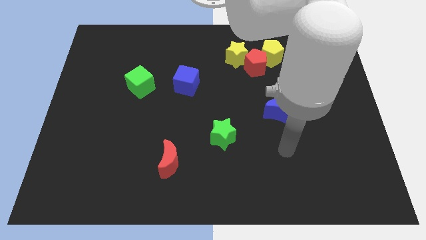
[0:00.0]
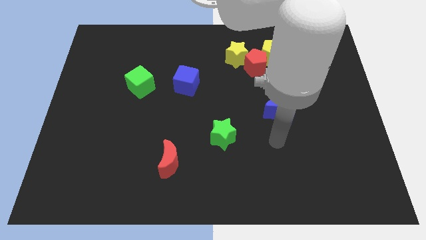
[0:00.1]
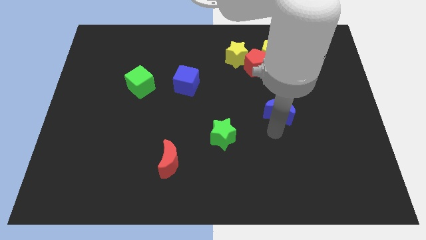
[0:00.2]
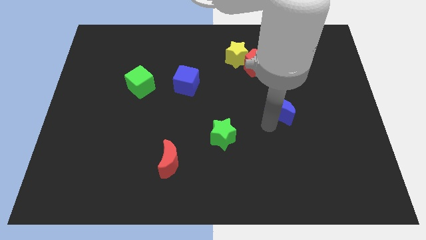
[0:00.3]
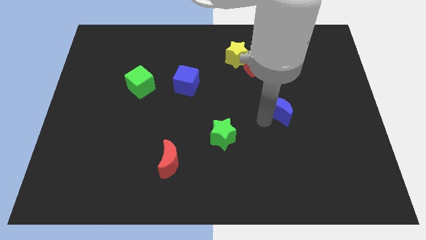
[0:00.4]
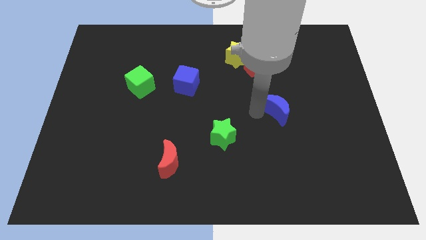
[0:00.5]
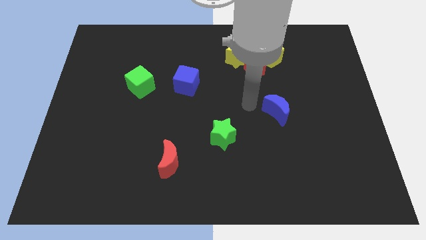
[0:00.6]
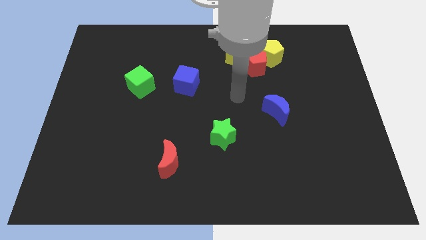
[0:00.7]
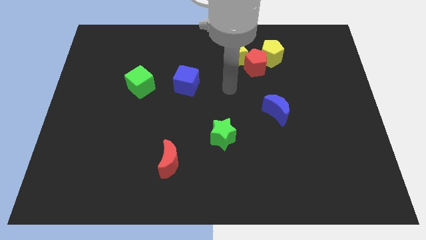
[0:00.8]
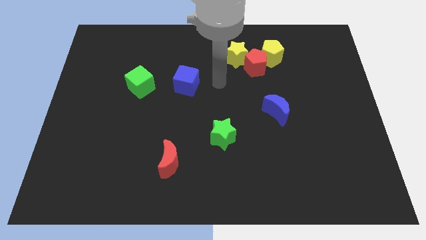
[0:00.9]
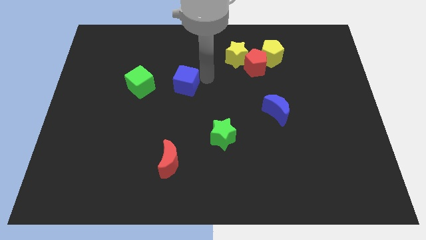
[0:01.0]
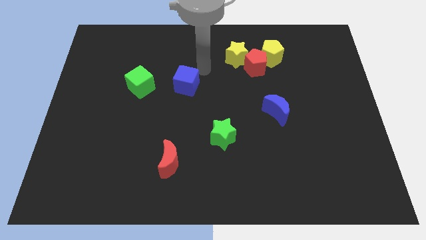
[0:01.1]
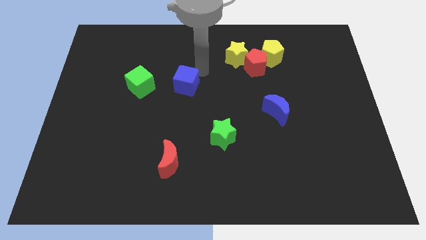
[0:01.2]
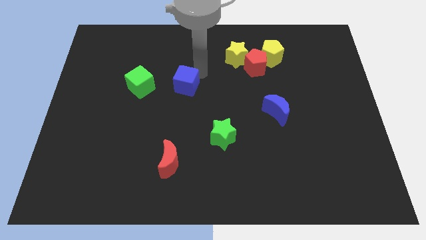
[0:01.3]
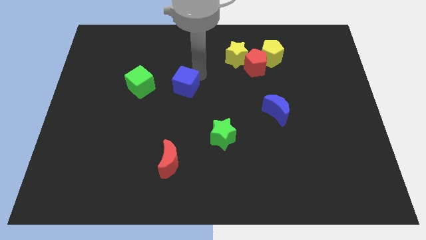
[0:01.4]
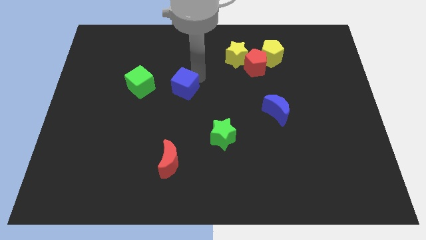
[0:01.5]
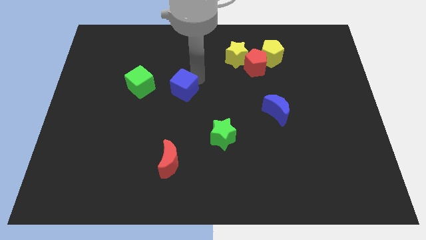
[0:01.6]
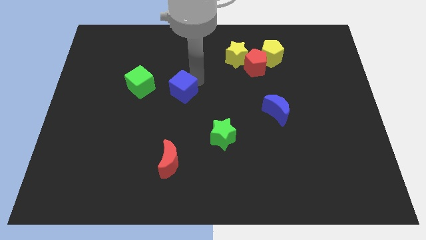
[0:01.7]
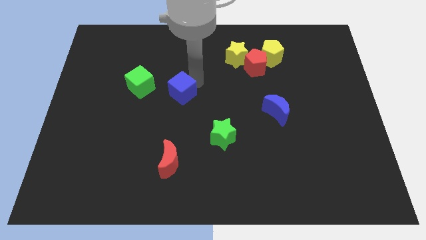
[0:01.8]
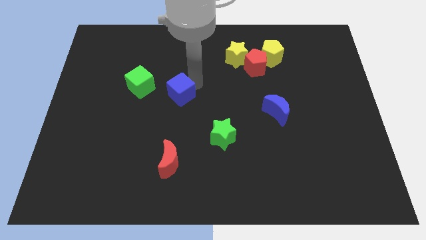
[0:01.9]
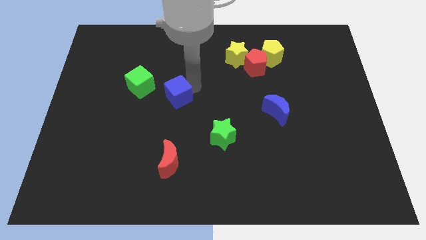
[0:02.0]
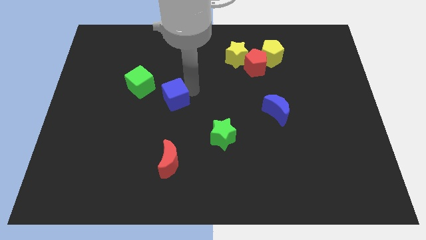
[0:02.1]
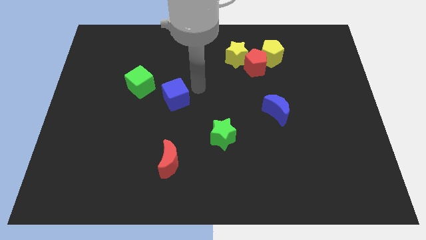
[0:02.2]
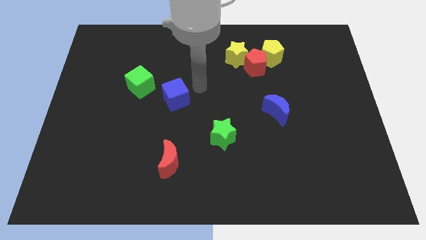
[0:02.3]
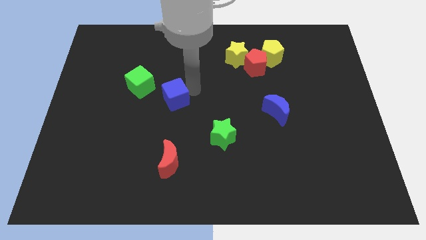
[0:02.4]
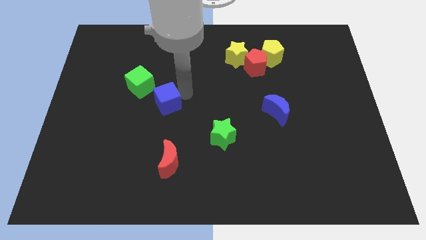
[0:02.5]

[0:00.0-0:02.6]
slightly push the blue cube downwards and left

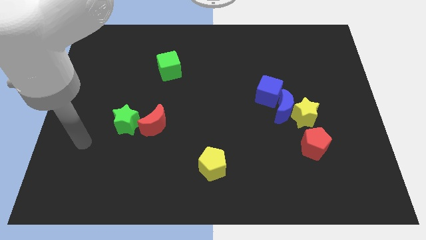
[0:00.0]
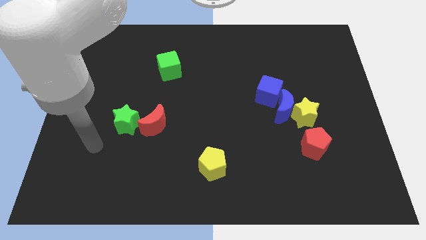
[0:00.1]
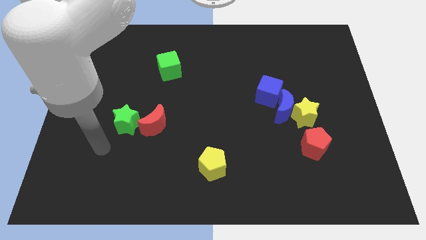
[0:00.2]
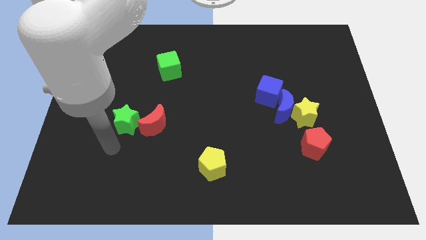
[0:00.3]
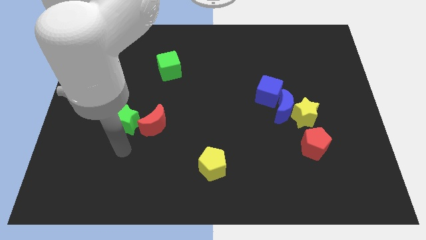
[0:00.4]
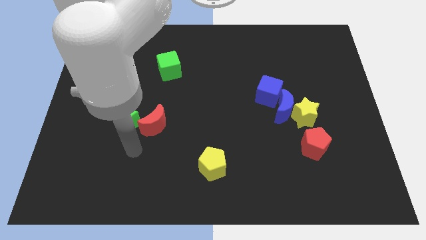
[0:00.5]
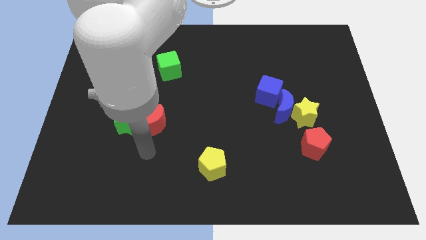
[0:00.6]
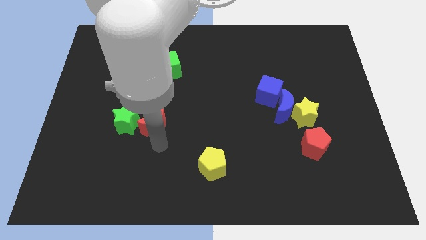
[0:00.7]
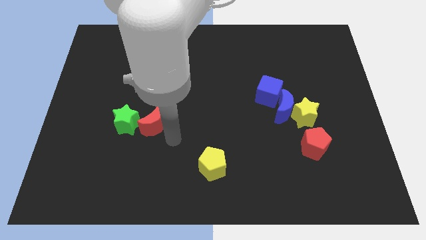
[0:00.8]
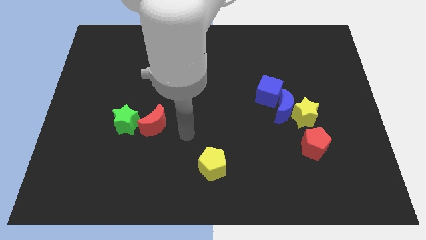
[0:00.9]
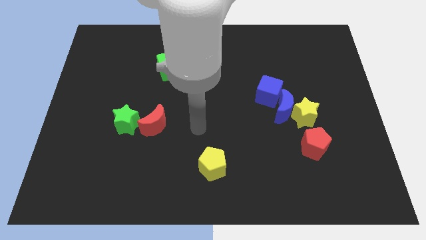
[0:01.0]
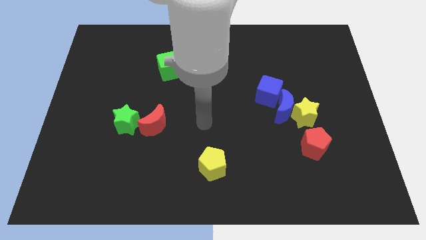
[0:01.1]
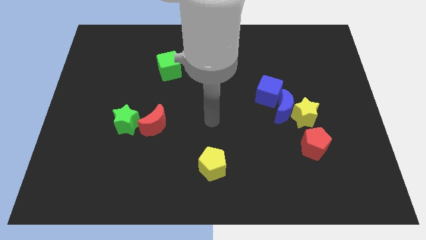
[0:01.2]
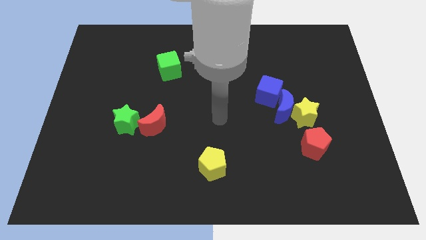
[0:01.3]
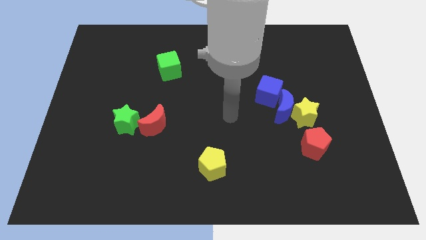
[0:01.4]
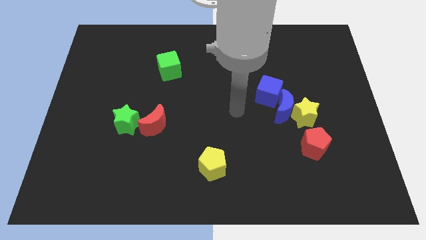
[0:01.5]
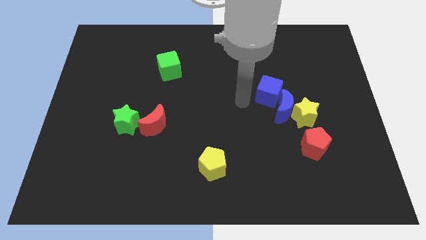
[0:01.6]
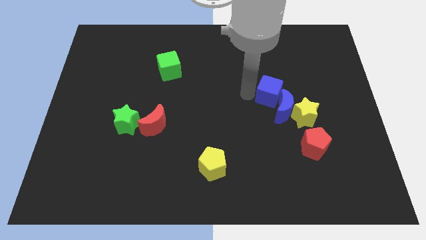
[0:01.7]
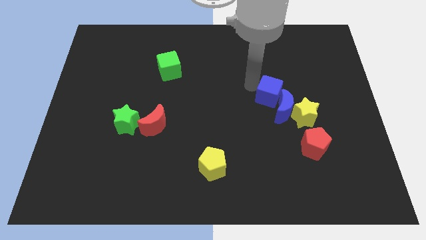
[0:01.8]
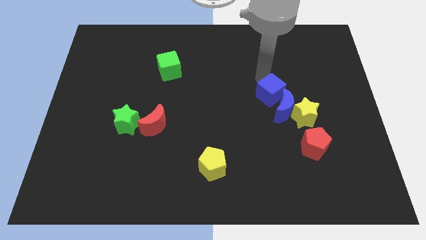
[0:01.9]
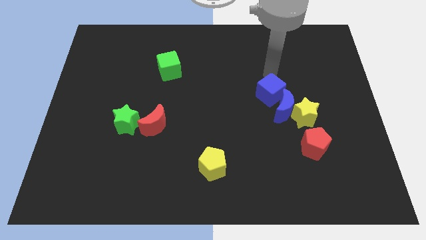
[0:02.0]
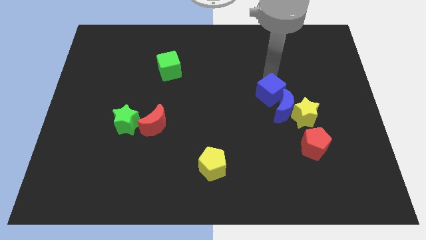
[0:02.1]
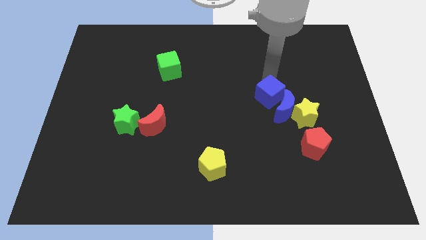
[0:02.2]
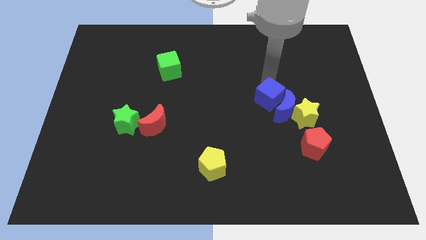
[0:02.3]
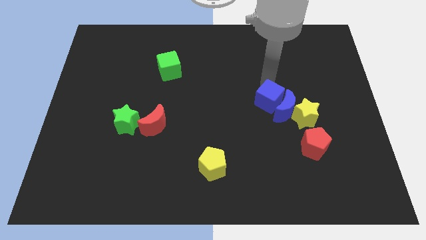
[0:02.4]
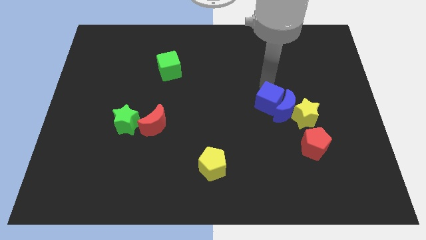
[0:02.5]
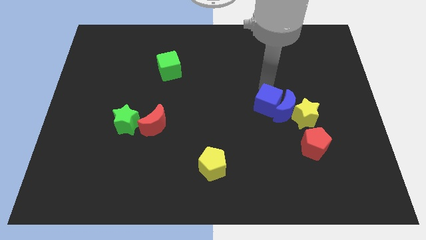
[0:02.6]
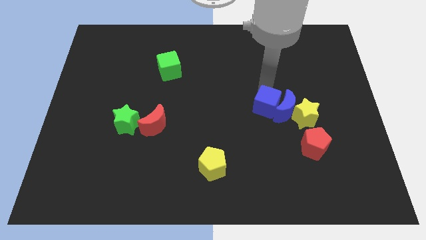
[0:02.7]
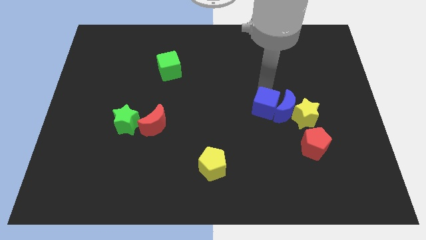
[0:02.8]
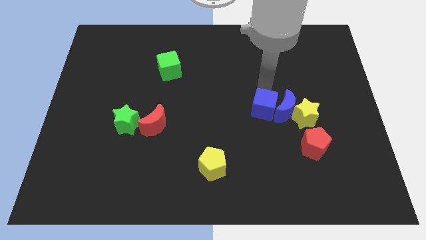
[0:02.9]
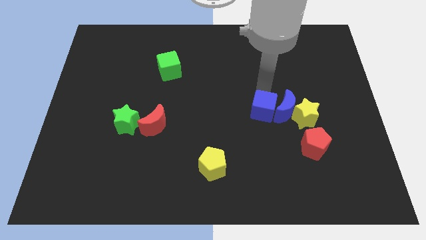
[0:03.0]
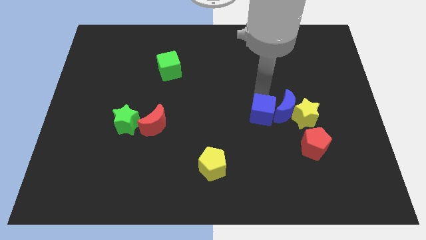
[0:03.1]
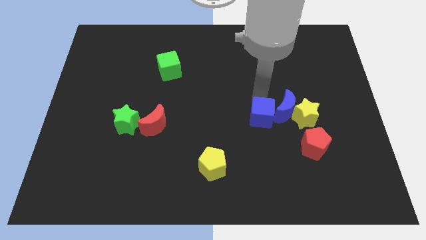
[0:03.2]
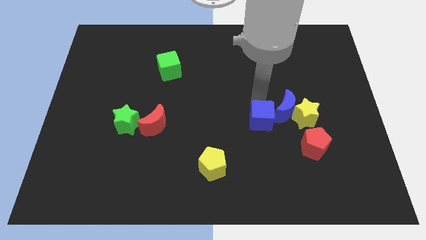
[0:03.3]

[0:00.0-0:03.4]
push the blue cube downwards a little

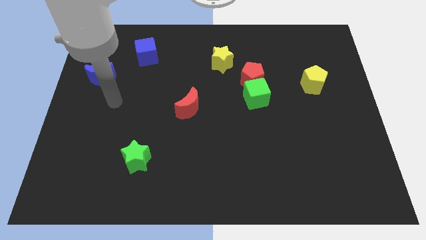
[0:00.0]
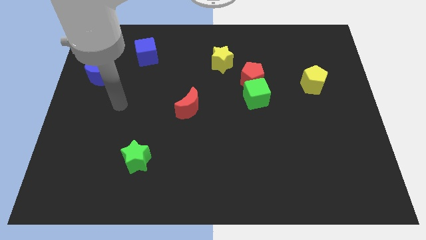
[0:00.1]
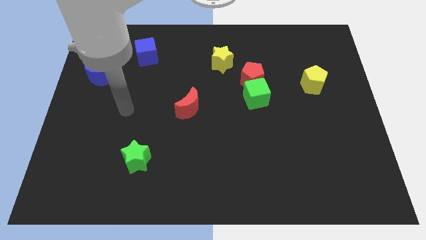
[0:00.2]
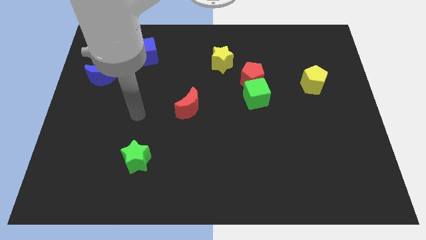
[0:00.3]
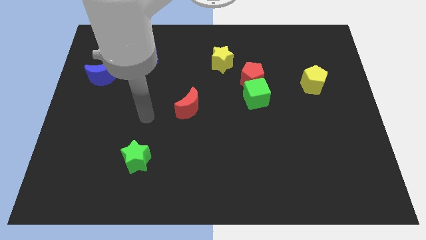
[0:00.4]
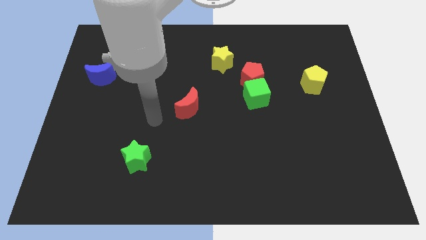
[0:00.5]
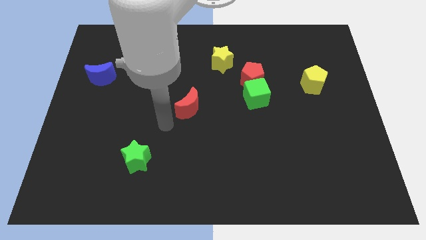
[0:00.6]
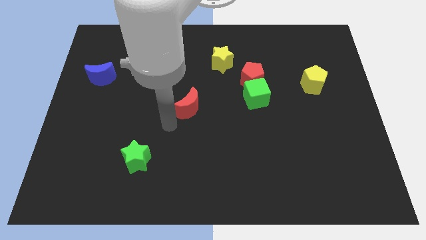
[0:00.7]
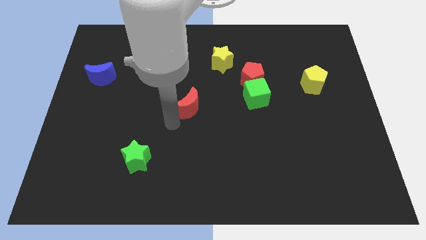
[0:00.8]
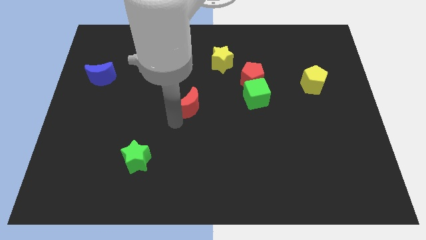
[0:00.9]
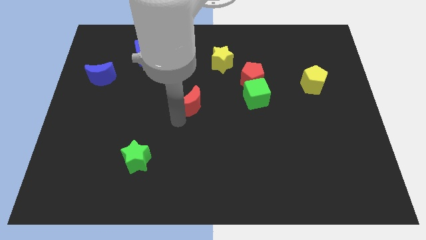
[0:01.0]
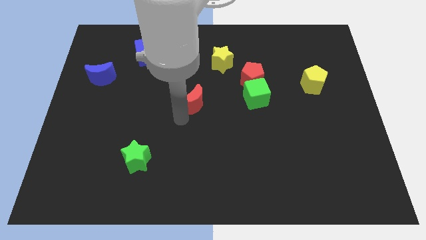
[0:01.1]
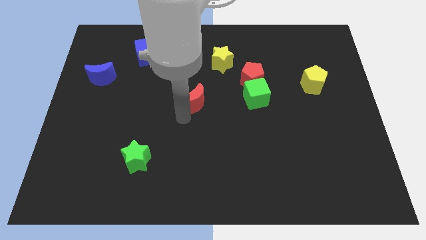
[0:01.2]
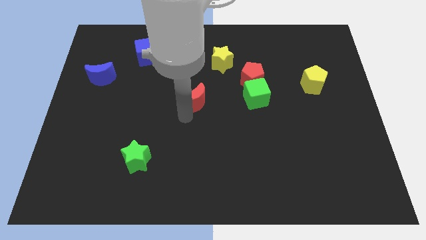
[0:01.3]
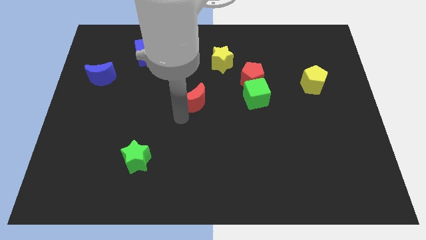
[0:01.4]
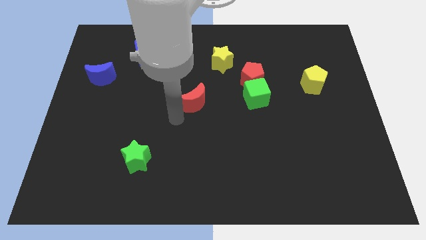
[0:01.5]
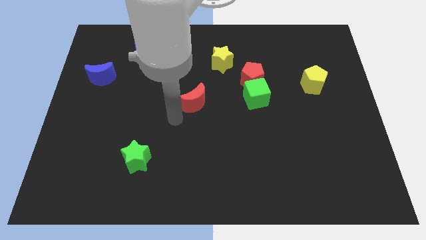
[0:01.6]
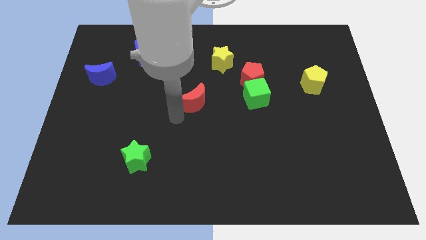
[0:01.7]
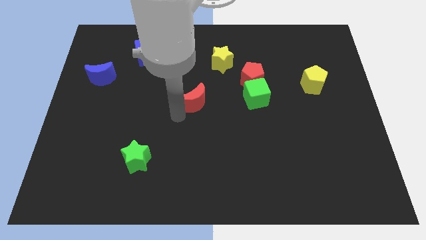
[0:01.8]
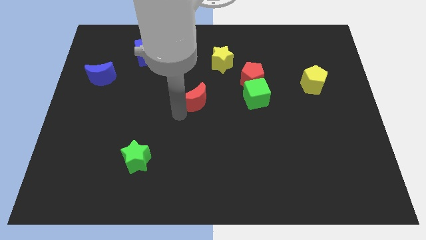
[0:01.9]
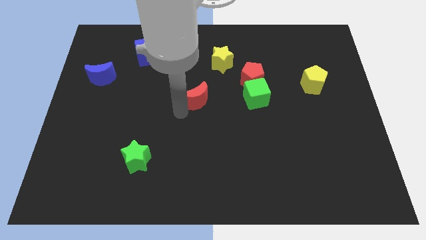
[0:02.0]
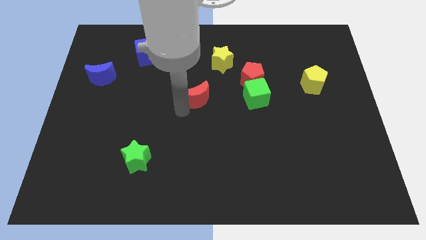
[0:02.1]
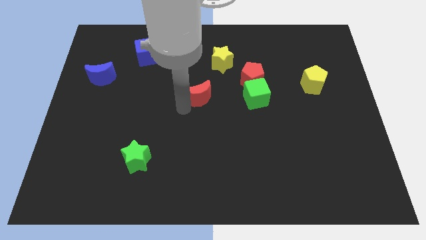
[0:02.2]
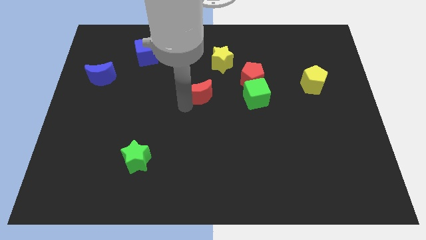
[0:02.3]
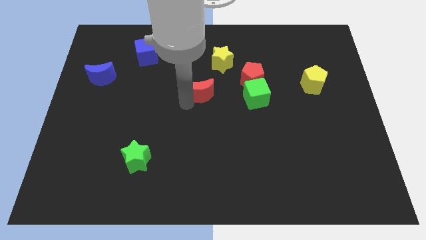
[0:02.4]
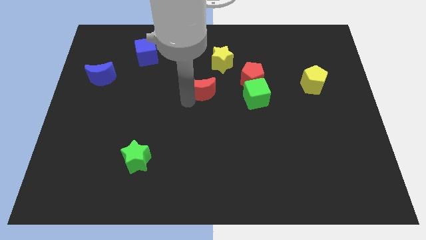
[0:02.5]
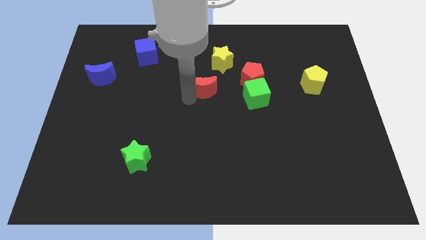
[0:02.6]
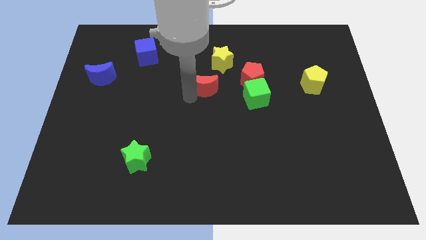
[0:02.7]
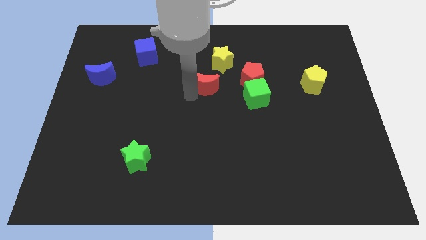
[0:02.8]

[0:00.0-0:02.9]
move the red moon slightly up and then to the right
